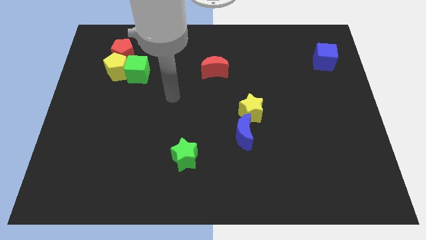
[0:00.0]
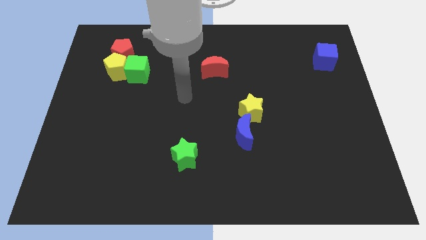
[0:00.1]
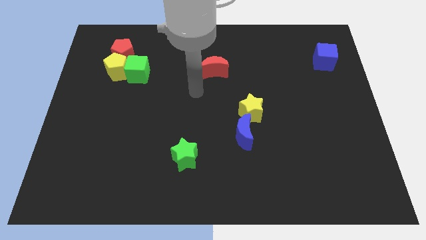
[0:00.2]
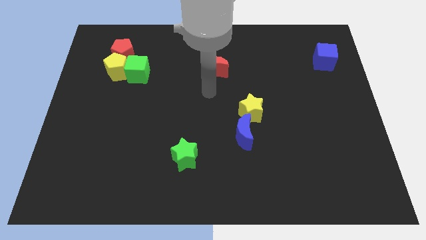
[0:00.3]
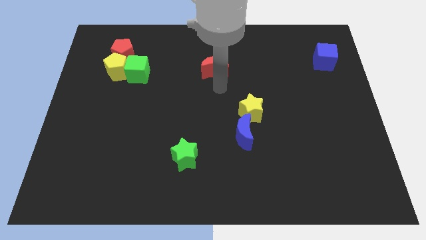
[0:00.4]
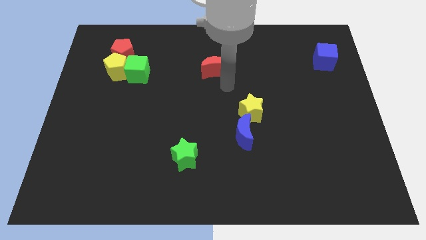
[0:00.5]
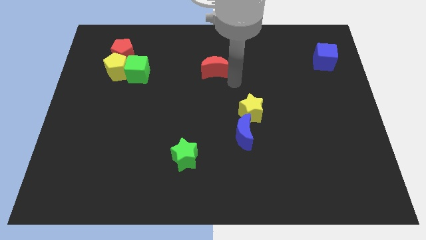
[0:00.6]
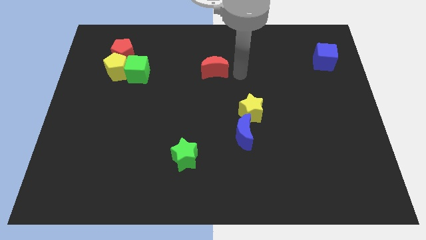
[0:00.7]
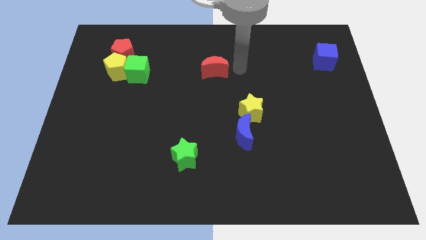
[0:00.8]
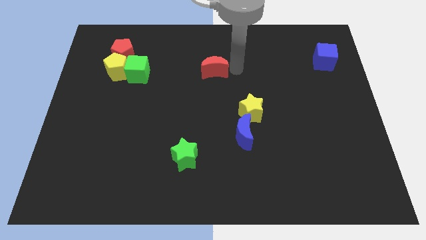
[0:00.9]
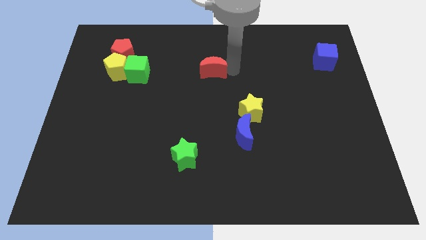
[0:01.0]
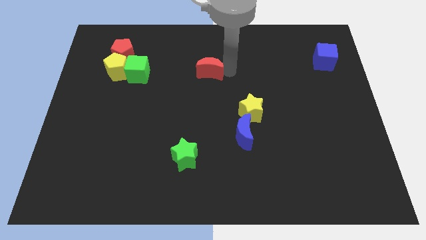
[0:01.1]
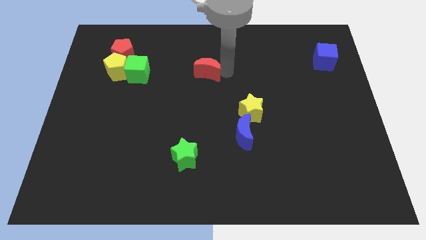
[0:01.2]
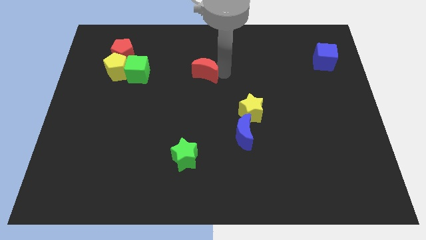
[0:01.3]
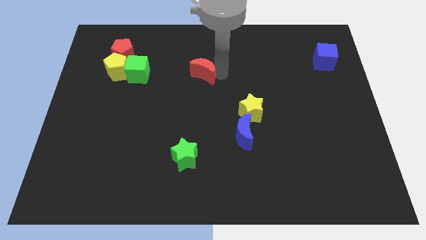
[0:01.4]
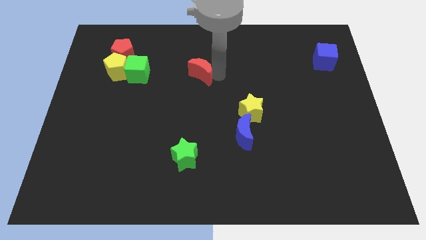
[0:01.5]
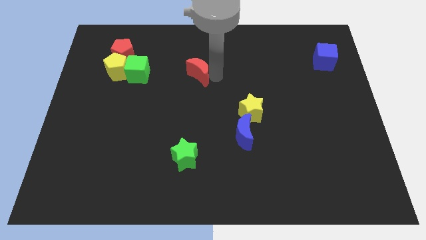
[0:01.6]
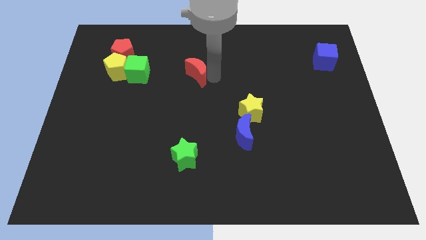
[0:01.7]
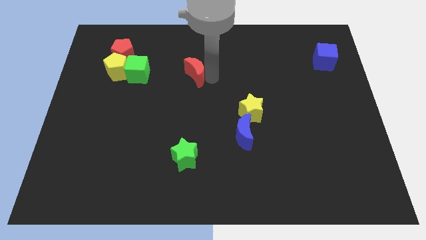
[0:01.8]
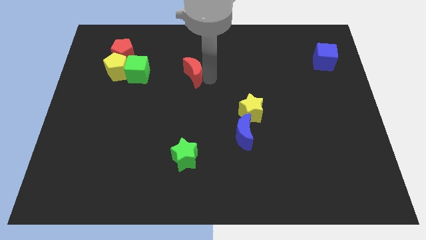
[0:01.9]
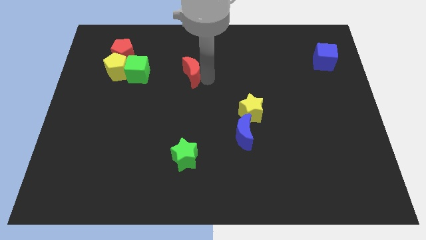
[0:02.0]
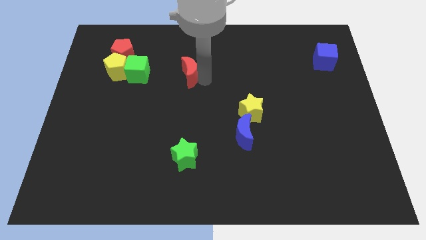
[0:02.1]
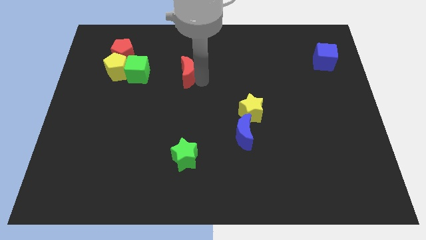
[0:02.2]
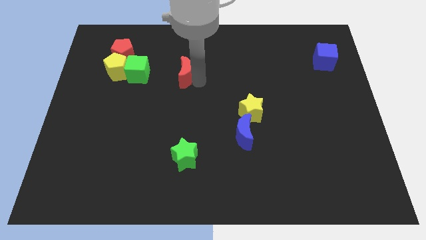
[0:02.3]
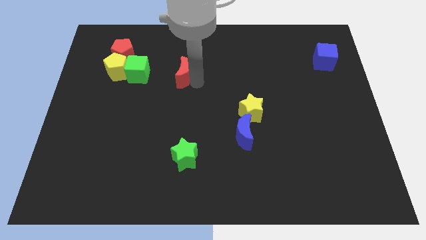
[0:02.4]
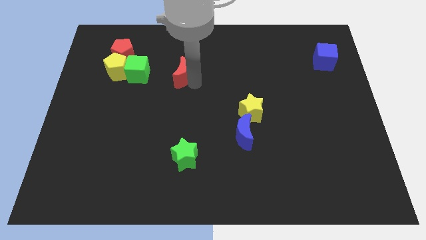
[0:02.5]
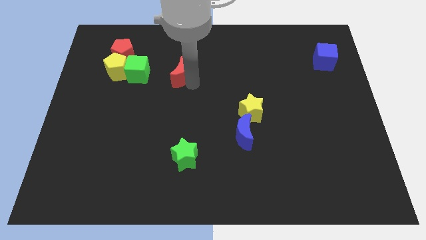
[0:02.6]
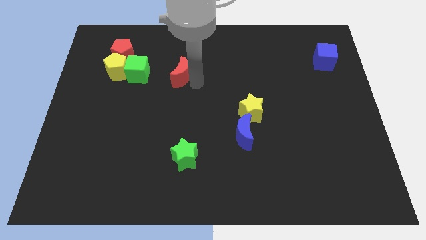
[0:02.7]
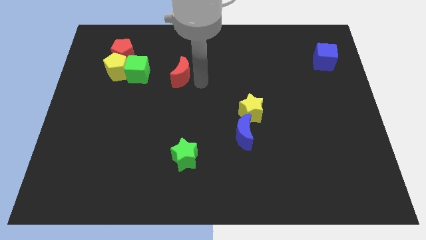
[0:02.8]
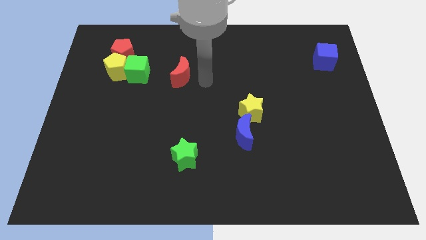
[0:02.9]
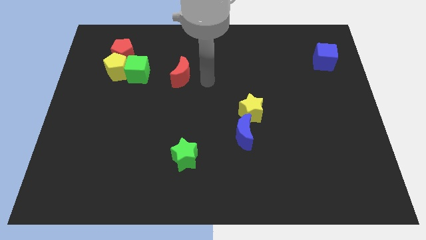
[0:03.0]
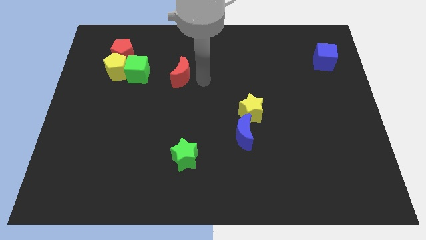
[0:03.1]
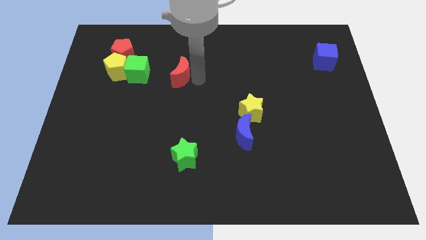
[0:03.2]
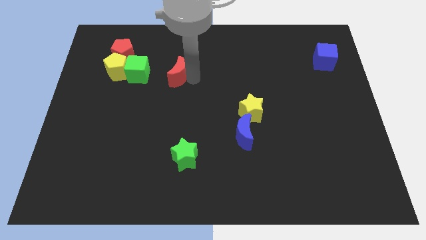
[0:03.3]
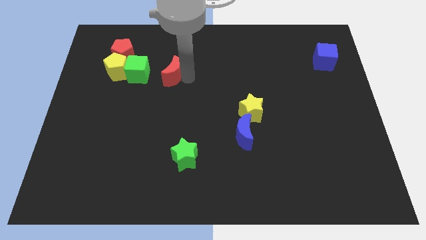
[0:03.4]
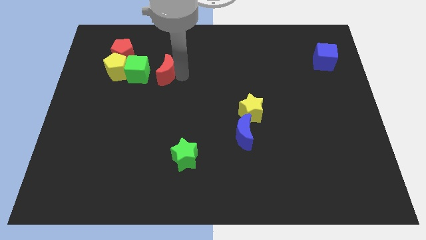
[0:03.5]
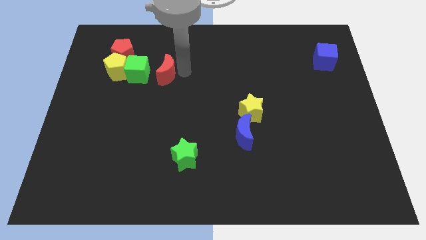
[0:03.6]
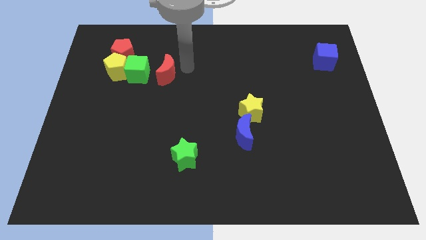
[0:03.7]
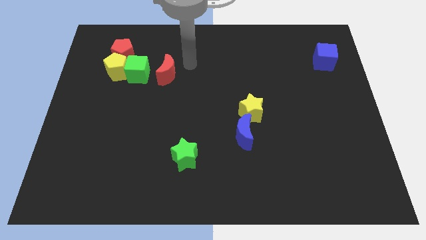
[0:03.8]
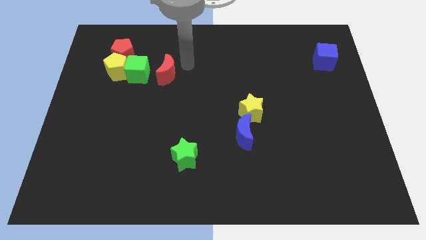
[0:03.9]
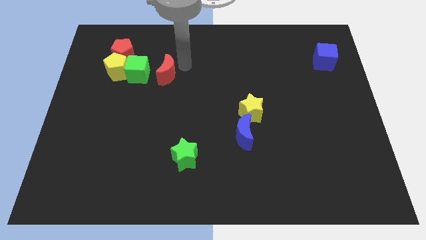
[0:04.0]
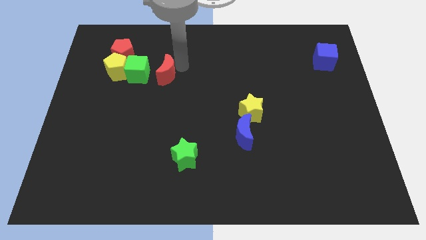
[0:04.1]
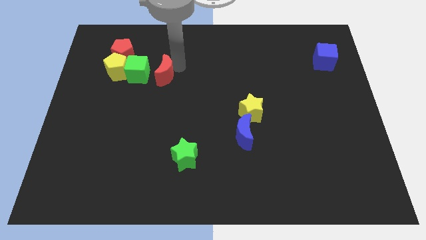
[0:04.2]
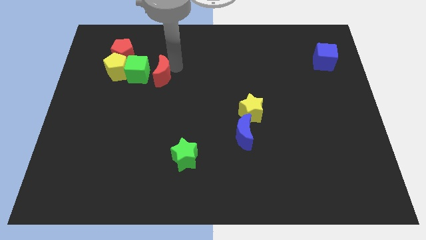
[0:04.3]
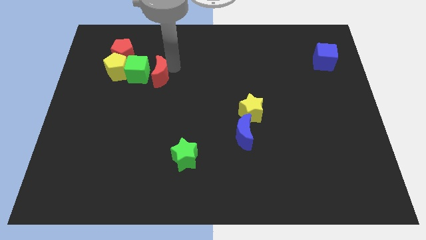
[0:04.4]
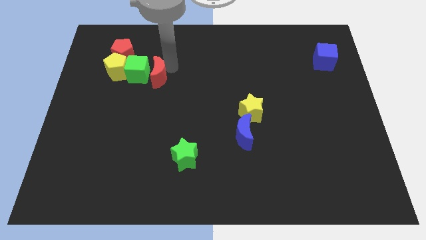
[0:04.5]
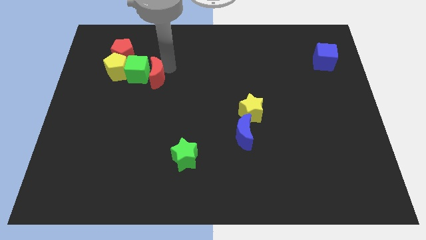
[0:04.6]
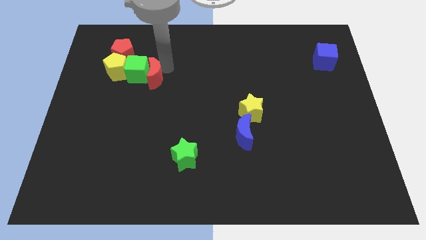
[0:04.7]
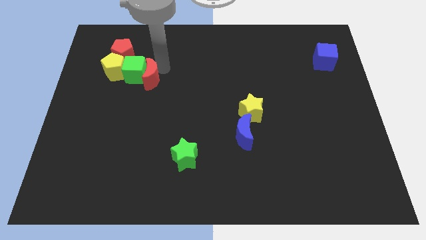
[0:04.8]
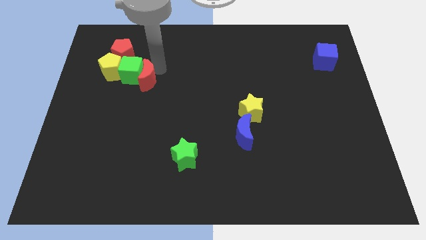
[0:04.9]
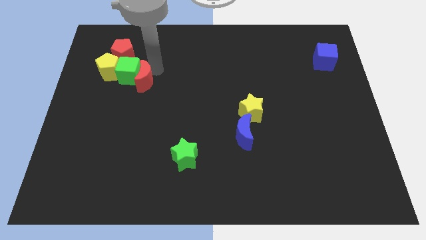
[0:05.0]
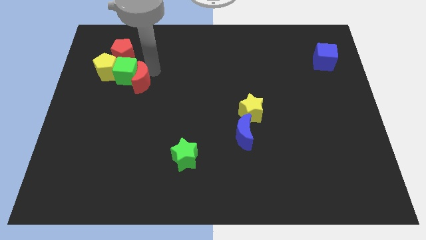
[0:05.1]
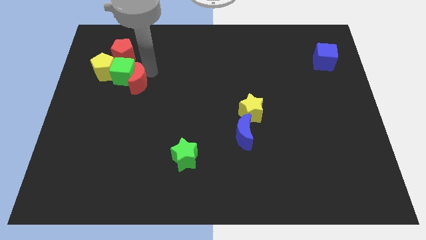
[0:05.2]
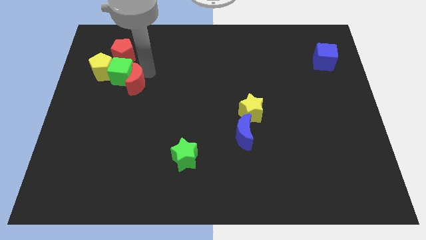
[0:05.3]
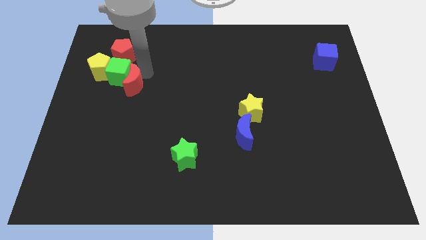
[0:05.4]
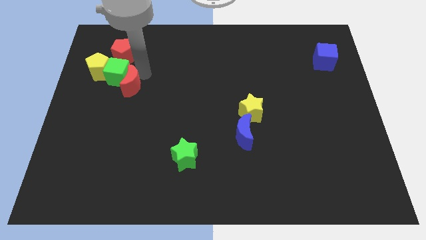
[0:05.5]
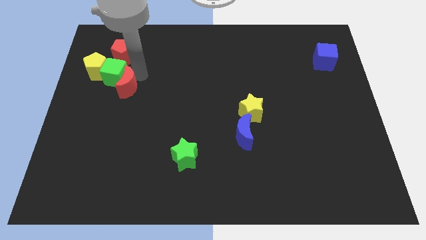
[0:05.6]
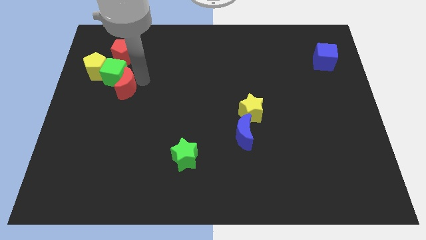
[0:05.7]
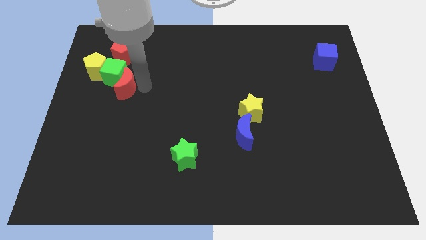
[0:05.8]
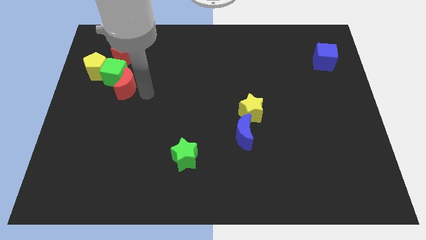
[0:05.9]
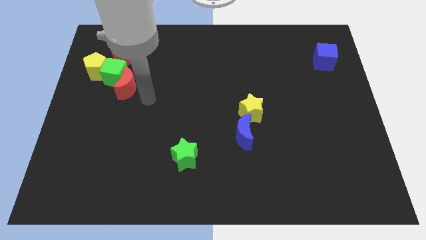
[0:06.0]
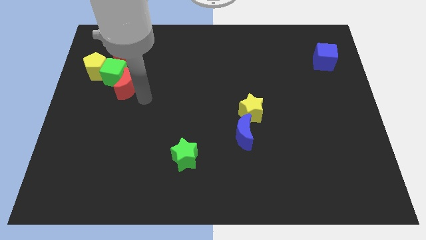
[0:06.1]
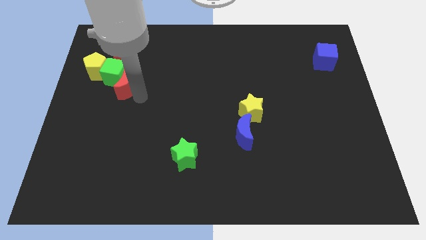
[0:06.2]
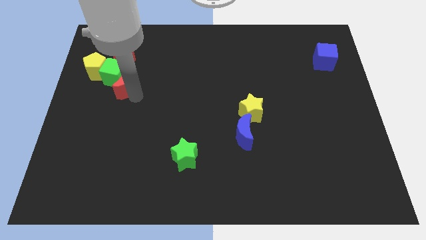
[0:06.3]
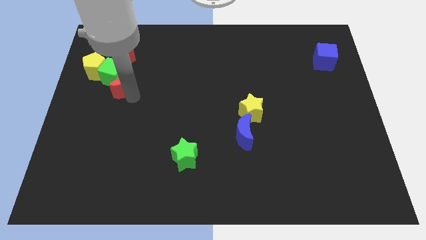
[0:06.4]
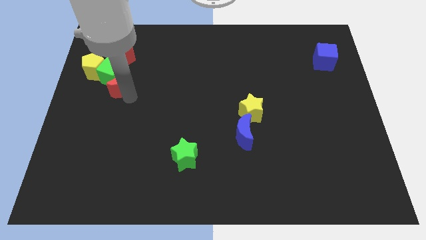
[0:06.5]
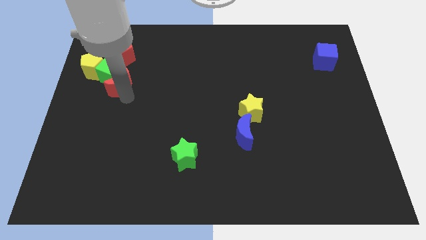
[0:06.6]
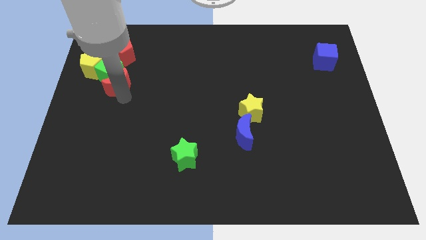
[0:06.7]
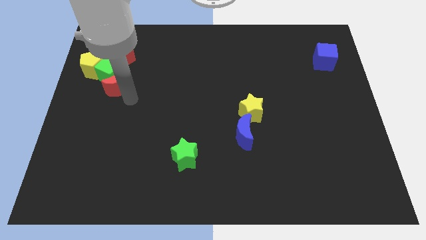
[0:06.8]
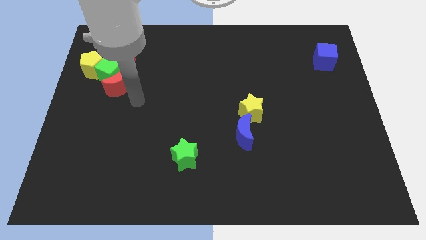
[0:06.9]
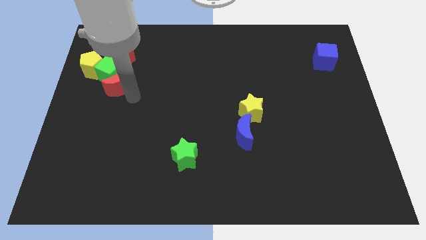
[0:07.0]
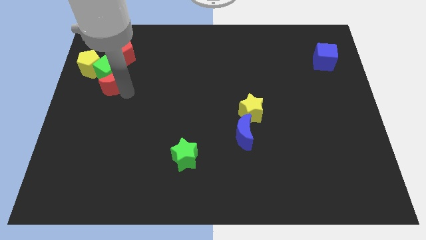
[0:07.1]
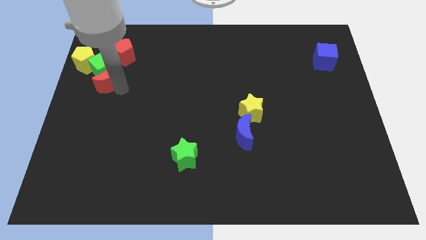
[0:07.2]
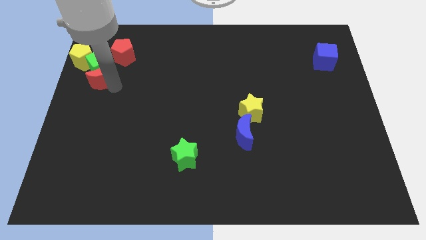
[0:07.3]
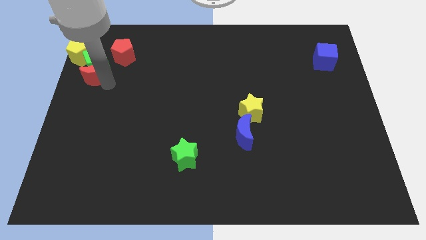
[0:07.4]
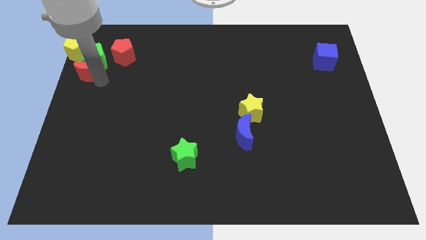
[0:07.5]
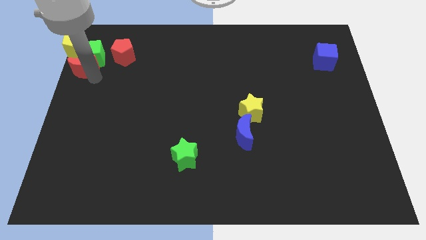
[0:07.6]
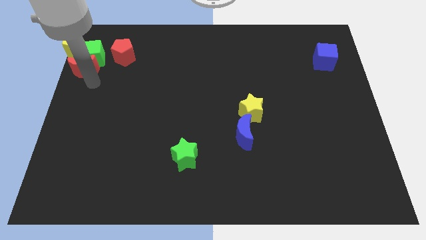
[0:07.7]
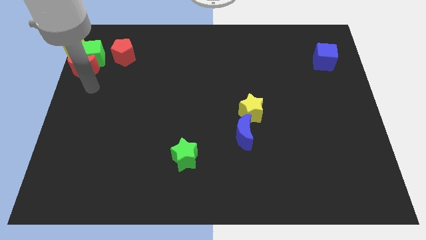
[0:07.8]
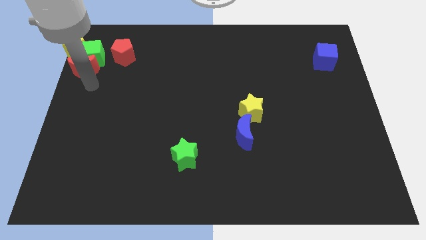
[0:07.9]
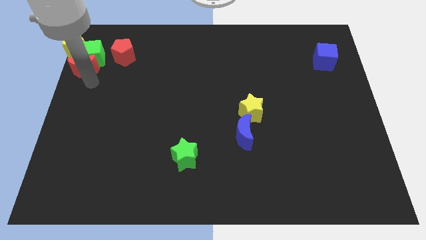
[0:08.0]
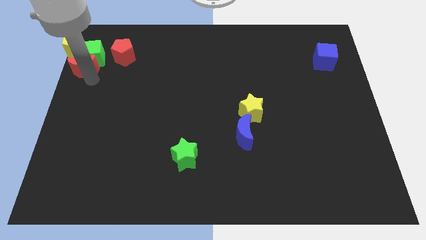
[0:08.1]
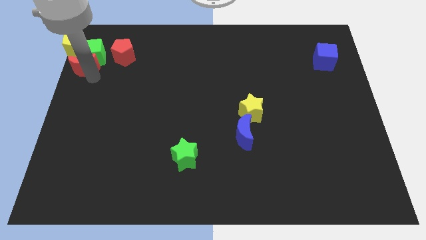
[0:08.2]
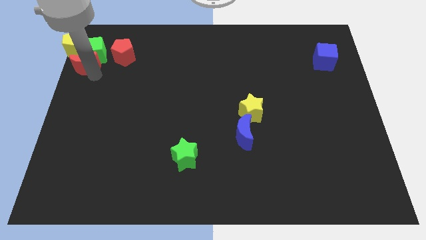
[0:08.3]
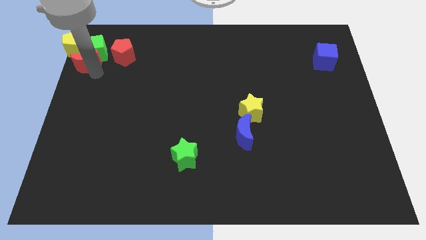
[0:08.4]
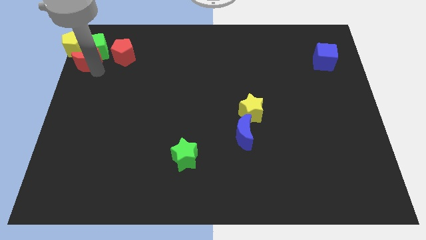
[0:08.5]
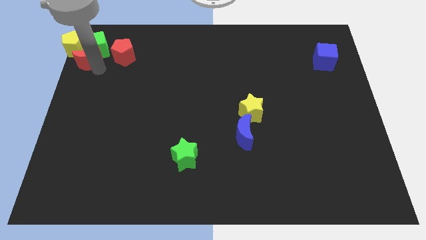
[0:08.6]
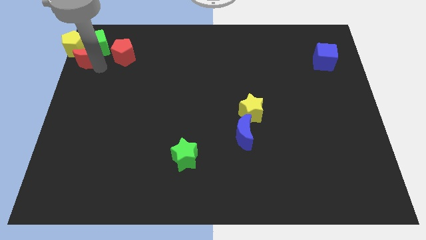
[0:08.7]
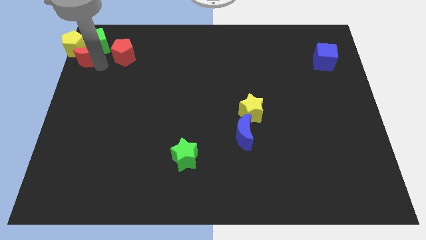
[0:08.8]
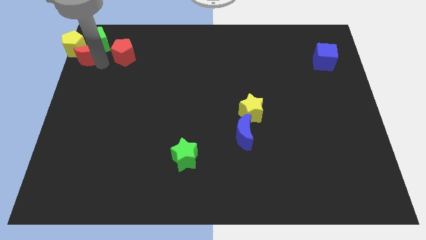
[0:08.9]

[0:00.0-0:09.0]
push the red moon to the yellow pentagon
